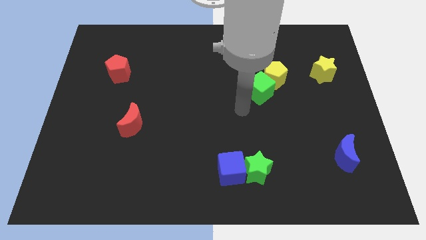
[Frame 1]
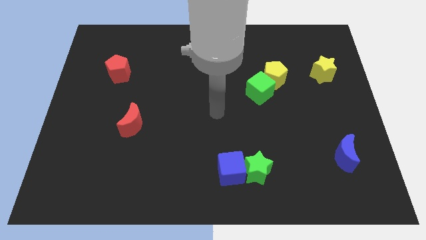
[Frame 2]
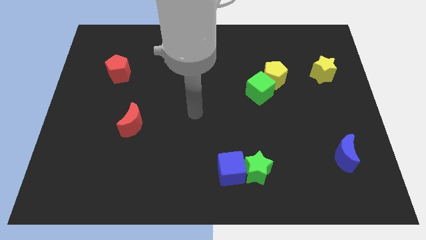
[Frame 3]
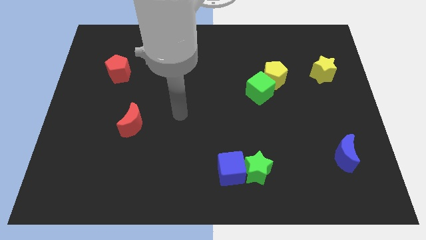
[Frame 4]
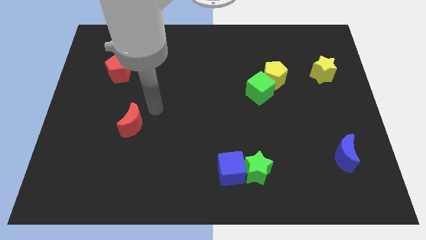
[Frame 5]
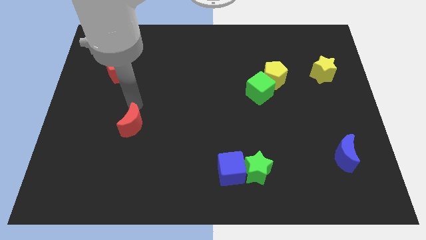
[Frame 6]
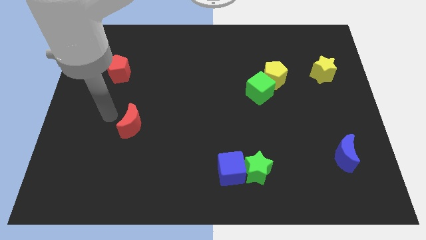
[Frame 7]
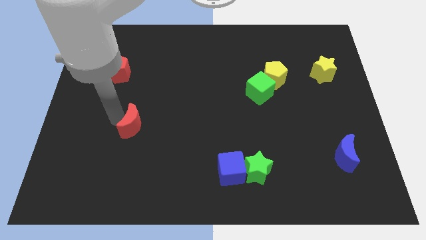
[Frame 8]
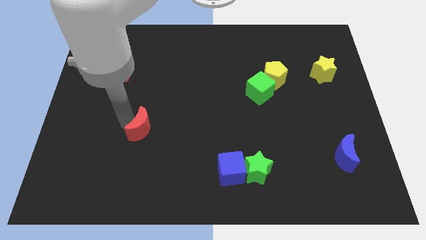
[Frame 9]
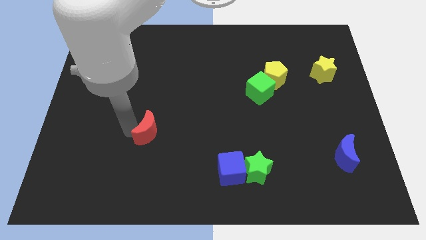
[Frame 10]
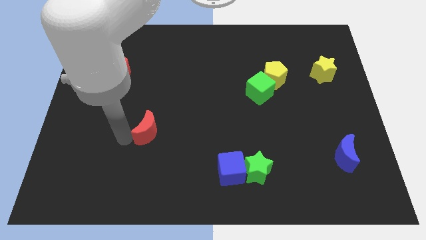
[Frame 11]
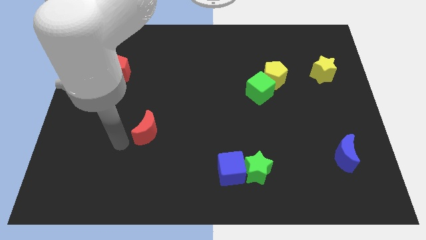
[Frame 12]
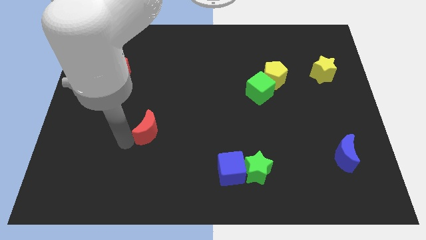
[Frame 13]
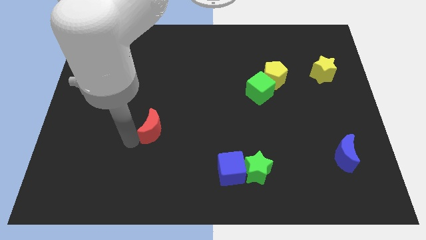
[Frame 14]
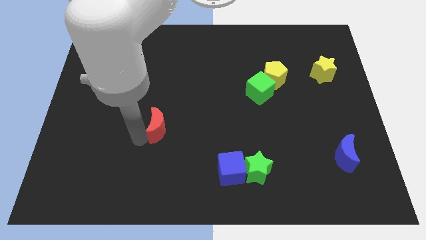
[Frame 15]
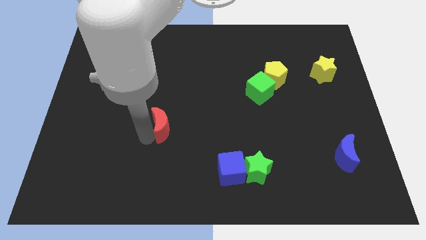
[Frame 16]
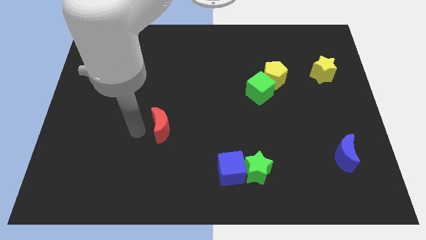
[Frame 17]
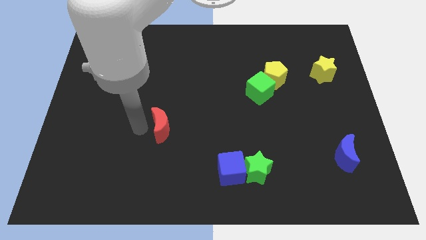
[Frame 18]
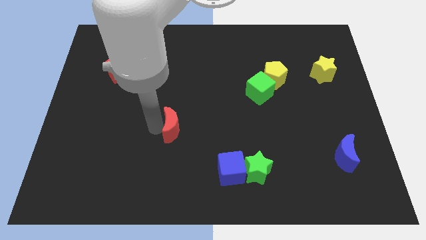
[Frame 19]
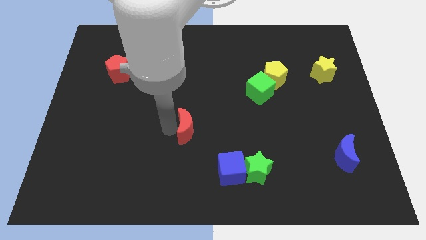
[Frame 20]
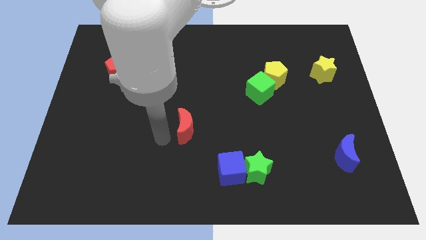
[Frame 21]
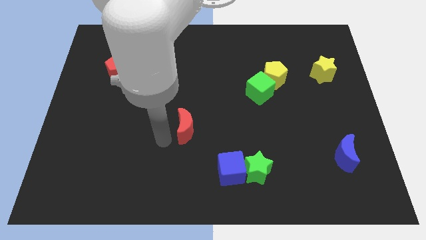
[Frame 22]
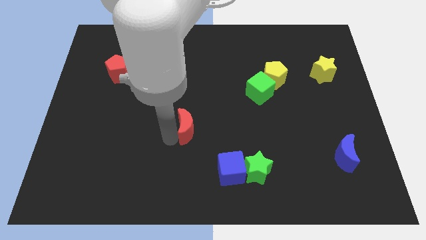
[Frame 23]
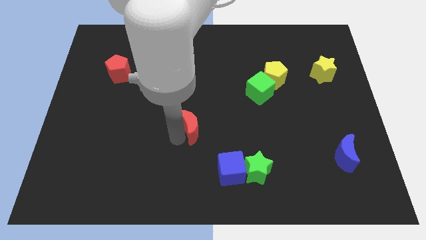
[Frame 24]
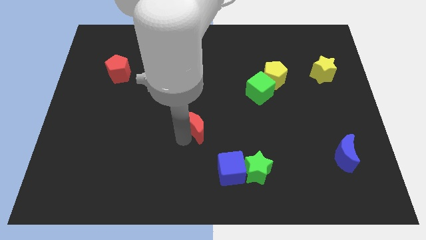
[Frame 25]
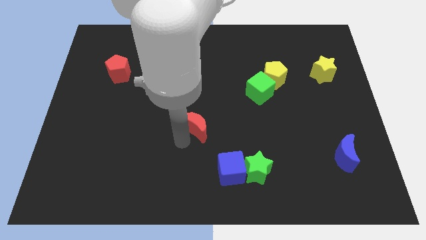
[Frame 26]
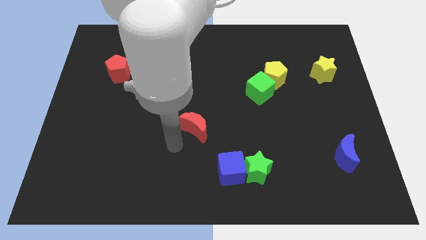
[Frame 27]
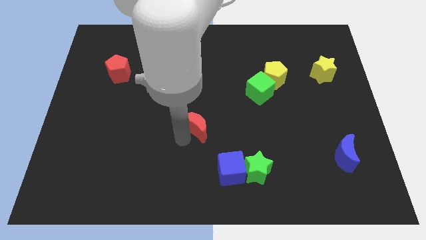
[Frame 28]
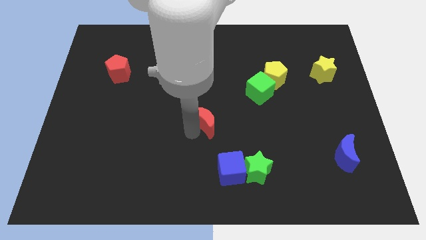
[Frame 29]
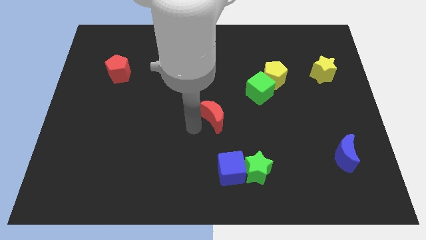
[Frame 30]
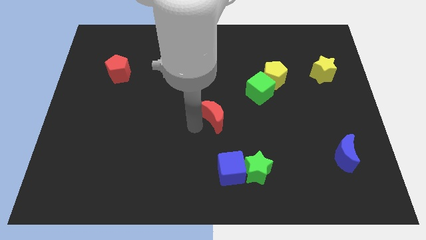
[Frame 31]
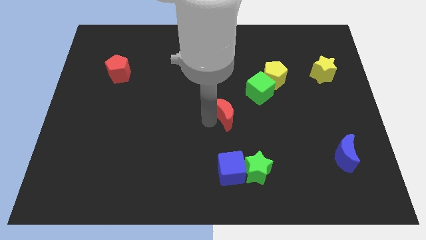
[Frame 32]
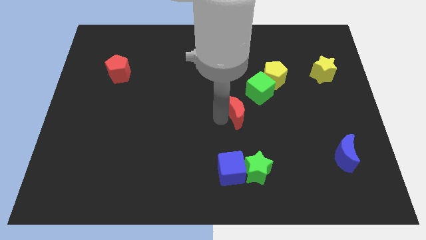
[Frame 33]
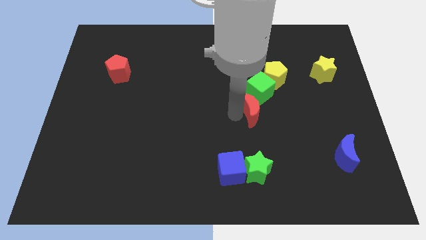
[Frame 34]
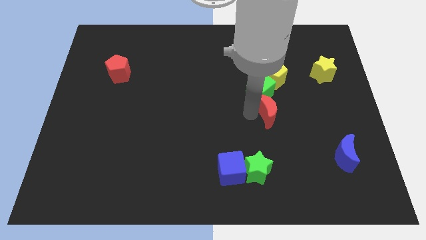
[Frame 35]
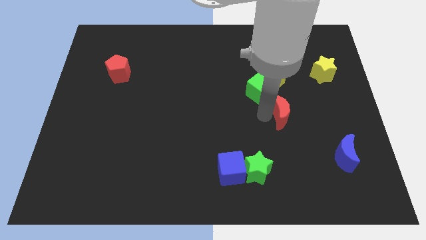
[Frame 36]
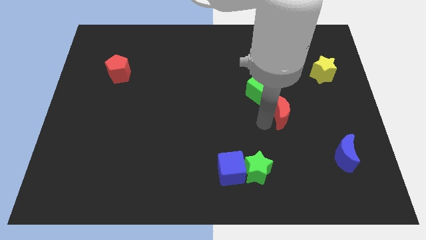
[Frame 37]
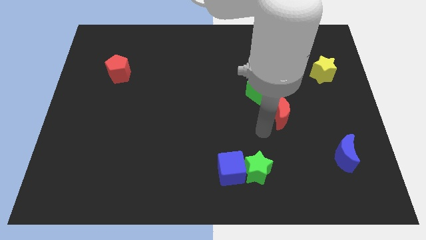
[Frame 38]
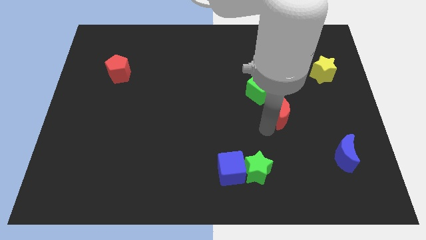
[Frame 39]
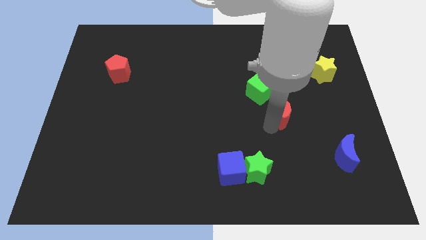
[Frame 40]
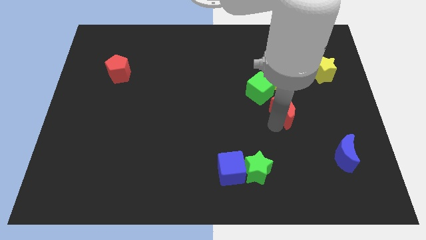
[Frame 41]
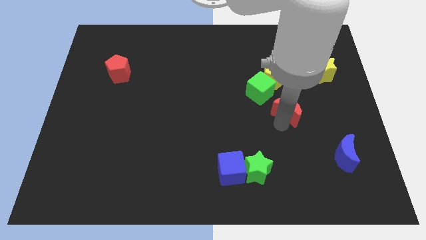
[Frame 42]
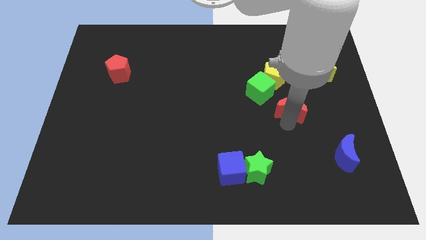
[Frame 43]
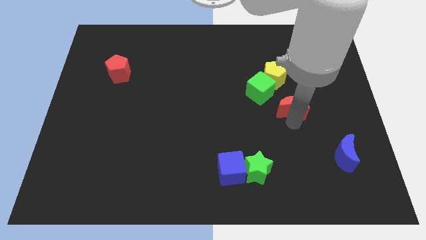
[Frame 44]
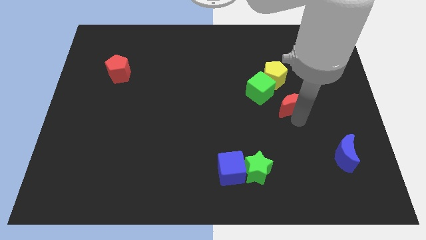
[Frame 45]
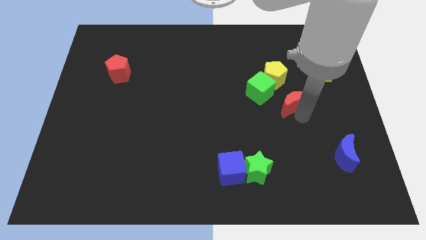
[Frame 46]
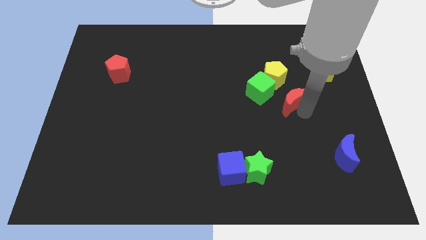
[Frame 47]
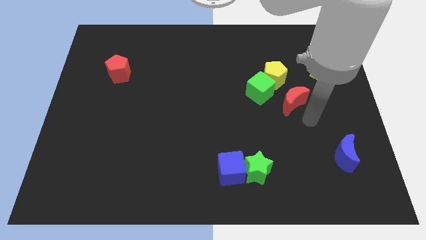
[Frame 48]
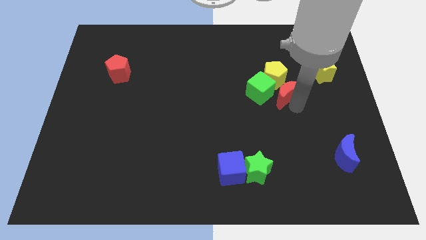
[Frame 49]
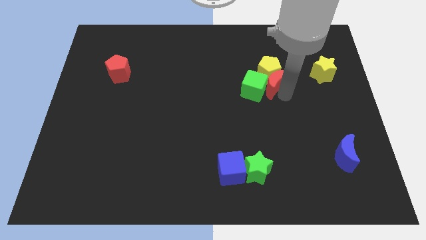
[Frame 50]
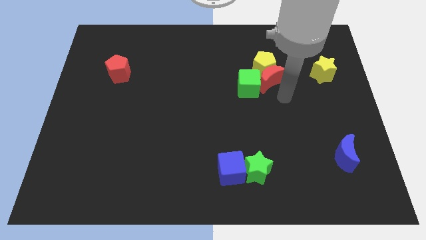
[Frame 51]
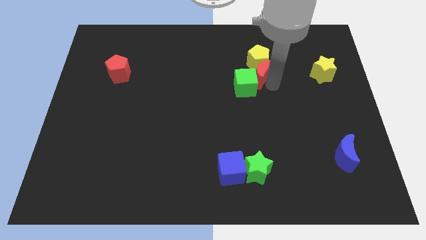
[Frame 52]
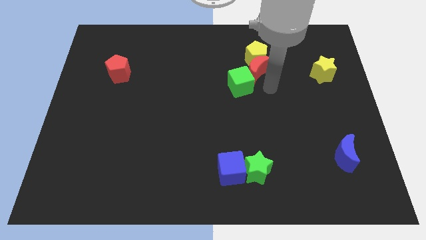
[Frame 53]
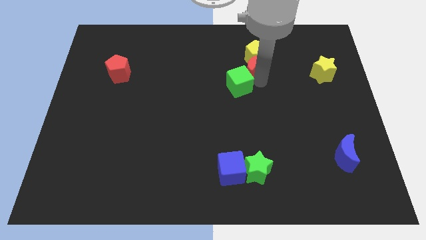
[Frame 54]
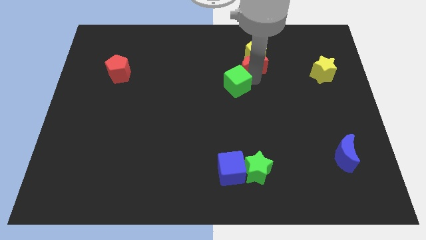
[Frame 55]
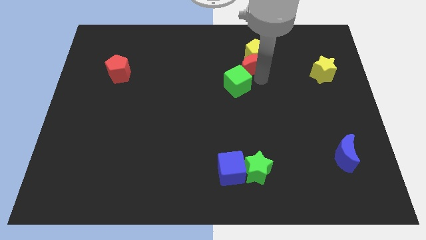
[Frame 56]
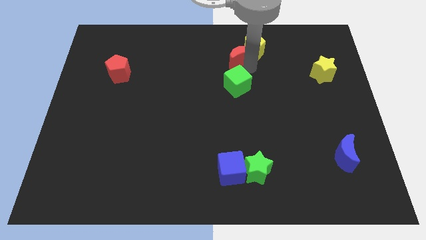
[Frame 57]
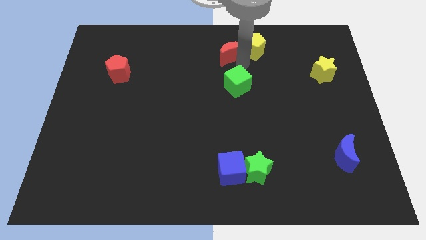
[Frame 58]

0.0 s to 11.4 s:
put the red moon to the top side
